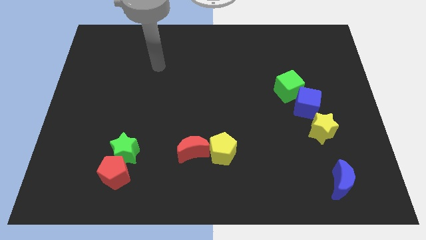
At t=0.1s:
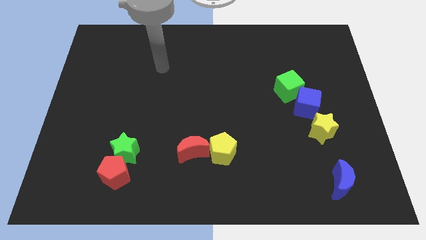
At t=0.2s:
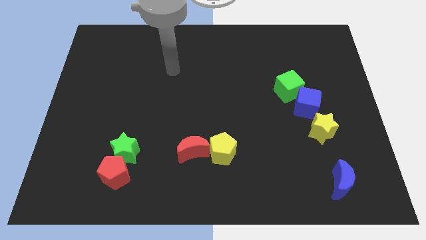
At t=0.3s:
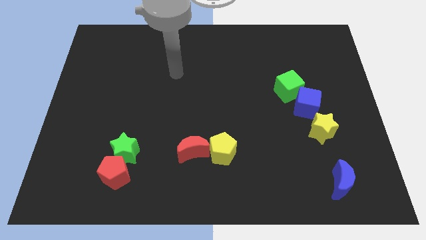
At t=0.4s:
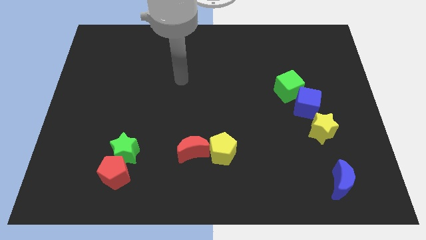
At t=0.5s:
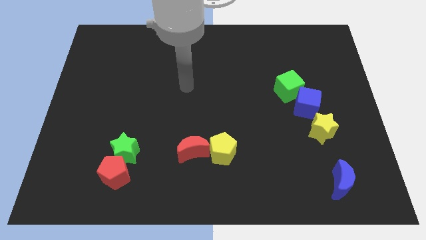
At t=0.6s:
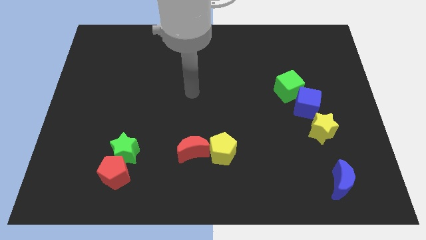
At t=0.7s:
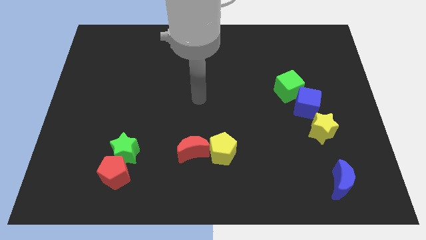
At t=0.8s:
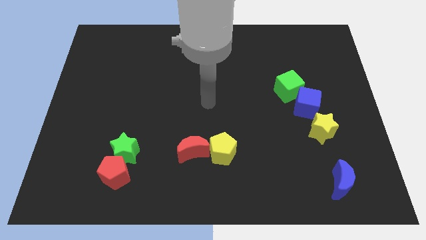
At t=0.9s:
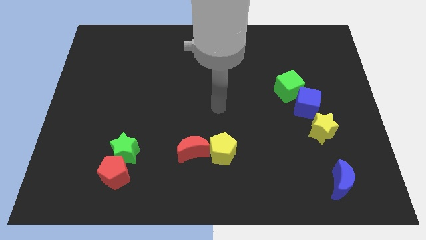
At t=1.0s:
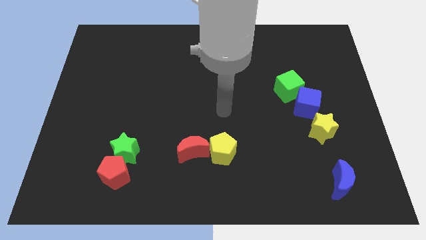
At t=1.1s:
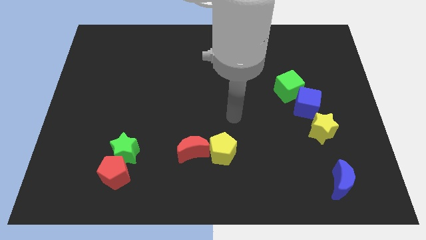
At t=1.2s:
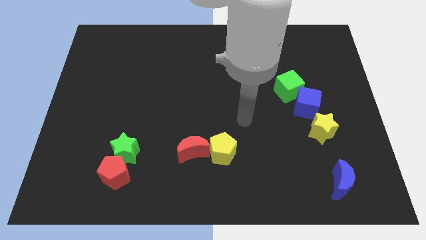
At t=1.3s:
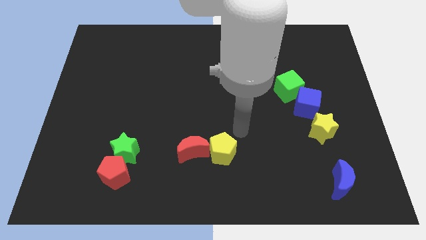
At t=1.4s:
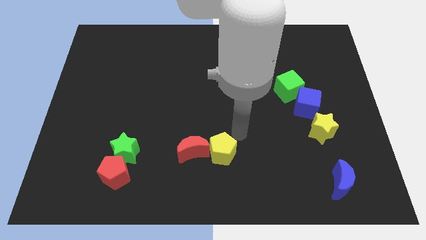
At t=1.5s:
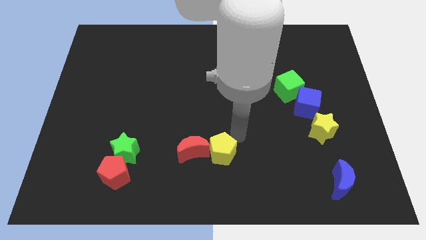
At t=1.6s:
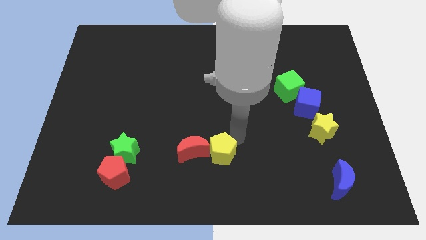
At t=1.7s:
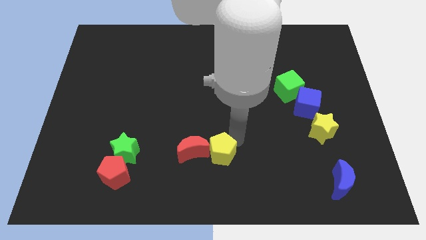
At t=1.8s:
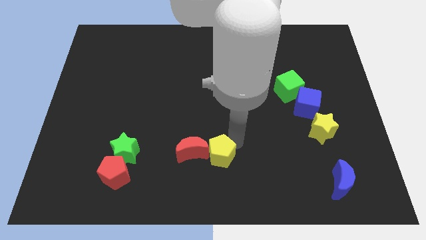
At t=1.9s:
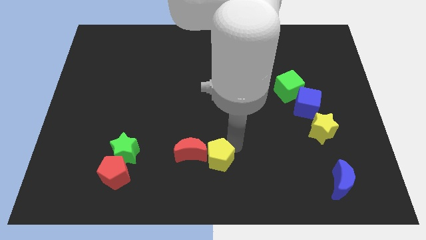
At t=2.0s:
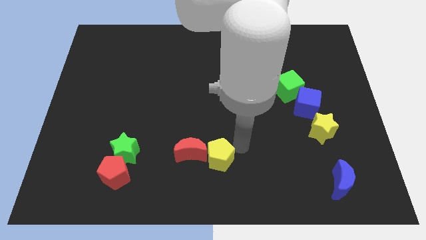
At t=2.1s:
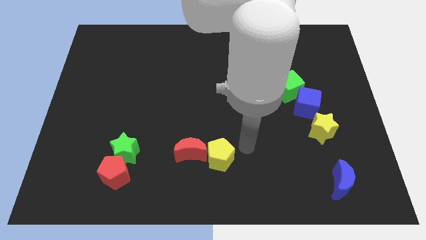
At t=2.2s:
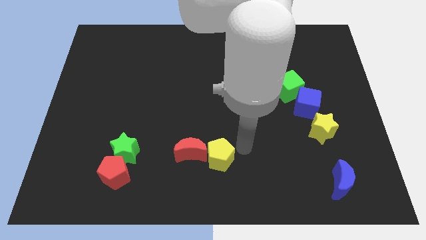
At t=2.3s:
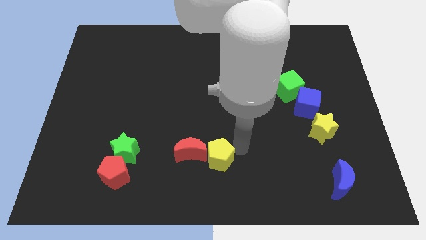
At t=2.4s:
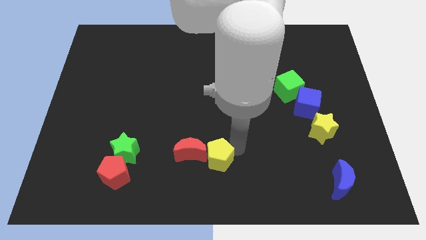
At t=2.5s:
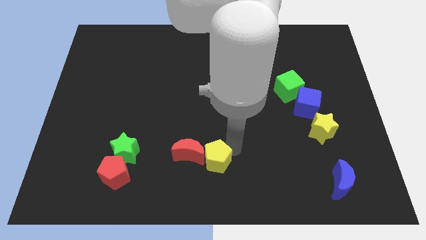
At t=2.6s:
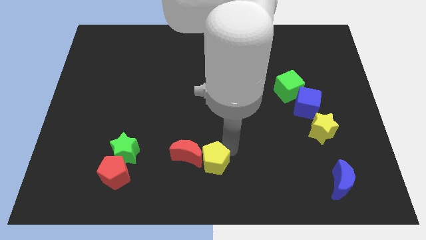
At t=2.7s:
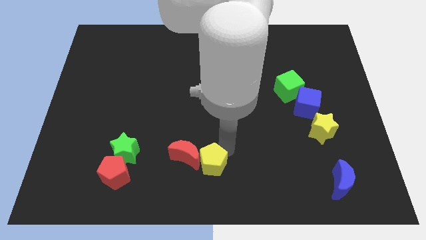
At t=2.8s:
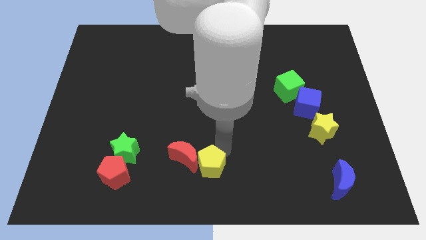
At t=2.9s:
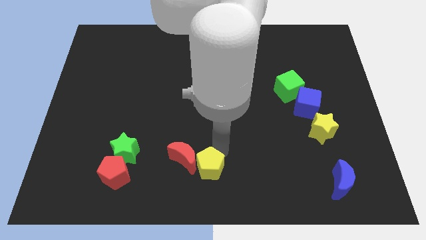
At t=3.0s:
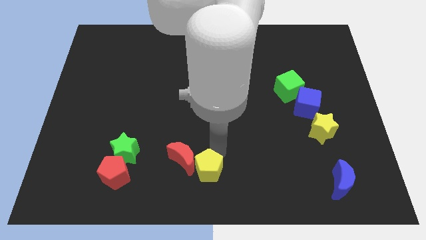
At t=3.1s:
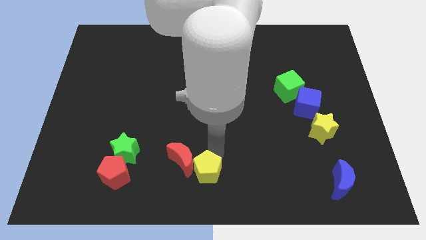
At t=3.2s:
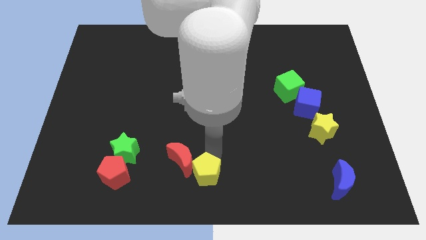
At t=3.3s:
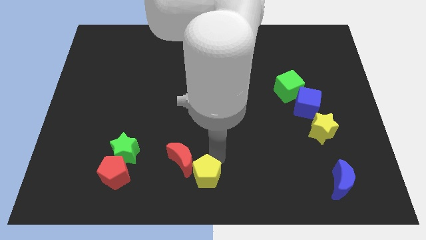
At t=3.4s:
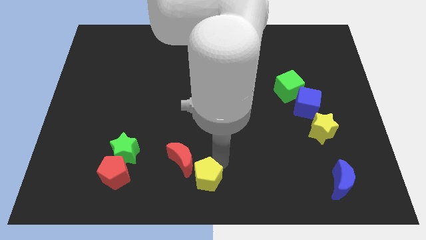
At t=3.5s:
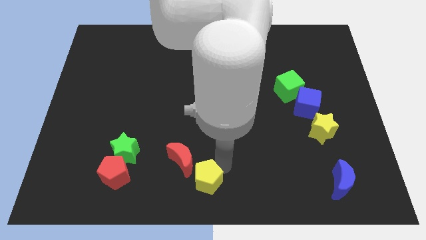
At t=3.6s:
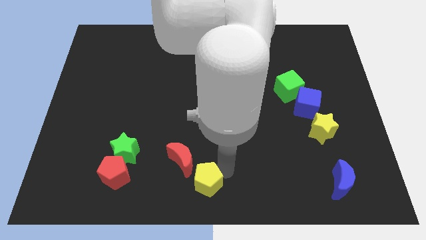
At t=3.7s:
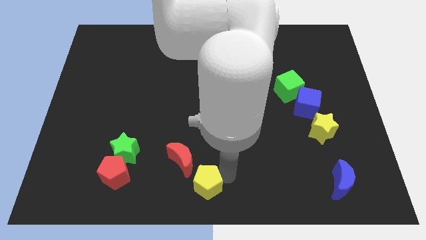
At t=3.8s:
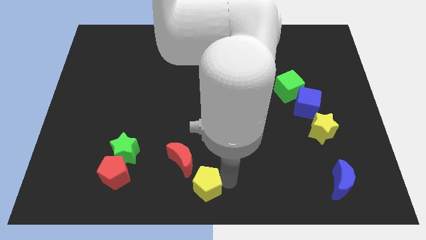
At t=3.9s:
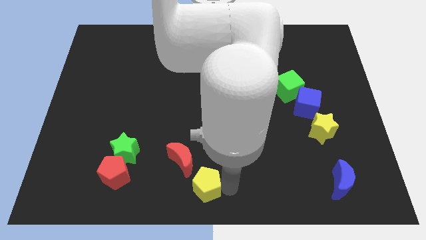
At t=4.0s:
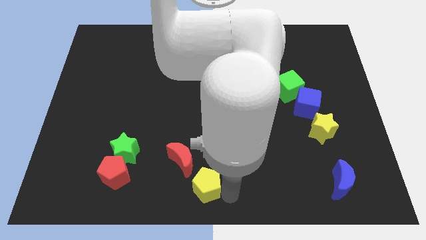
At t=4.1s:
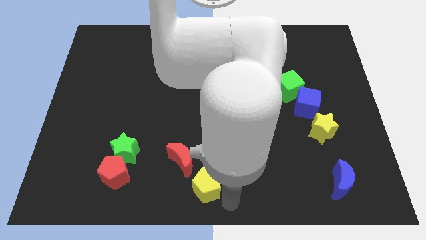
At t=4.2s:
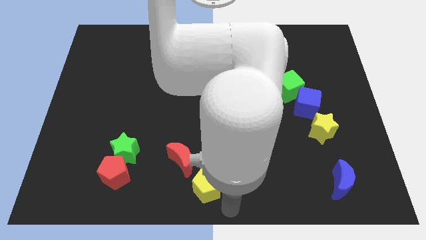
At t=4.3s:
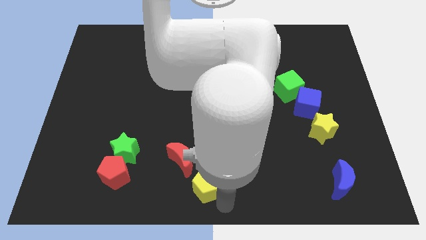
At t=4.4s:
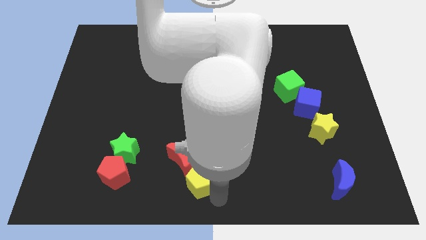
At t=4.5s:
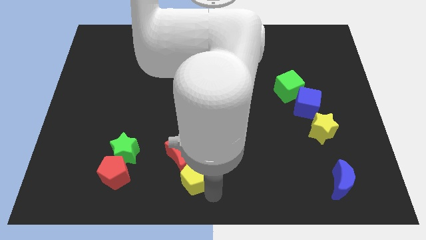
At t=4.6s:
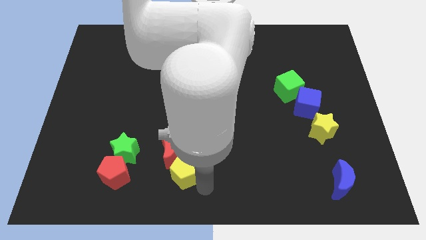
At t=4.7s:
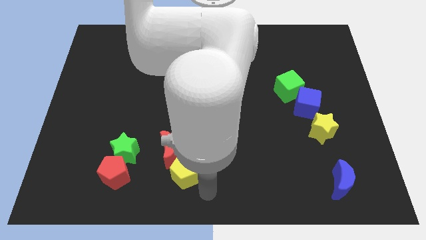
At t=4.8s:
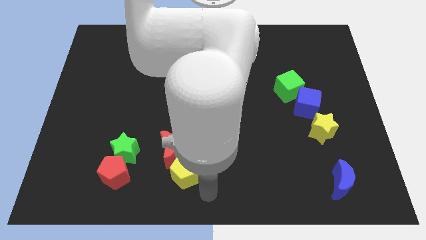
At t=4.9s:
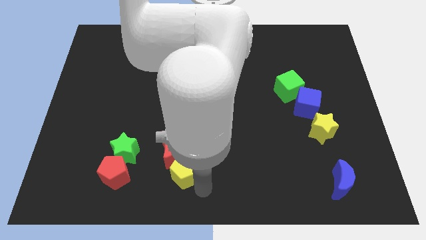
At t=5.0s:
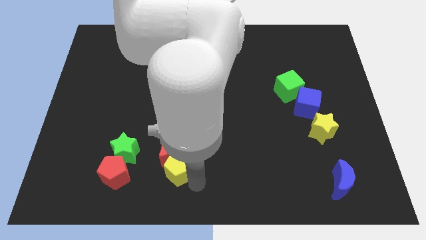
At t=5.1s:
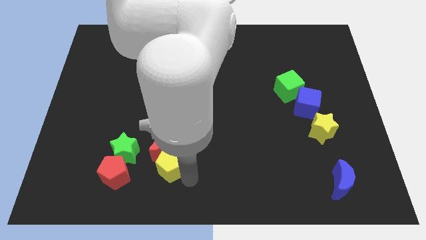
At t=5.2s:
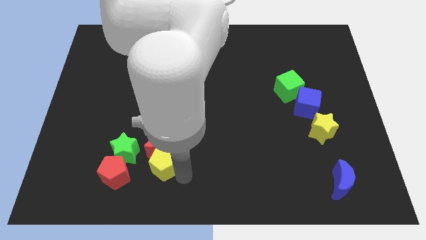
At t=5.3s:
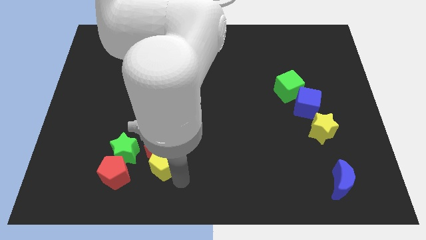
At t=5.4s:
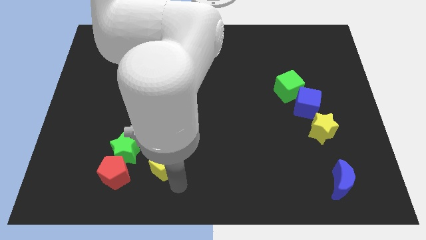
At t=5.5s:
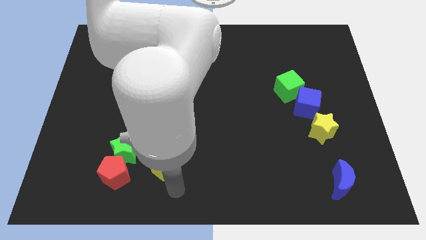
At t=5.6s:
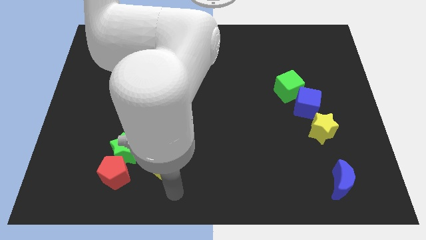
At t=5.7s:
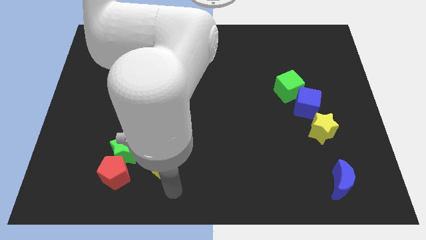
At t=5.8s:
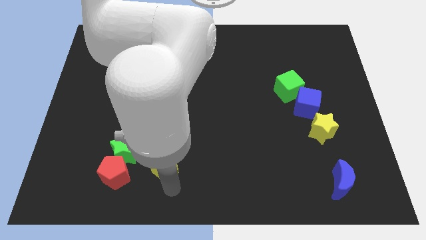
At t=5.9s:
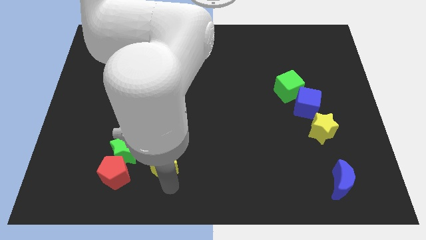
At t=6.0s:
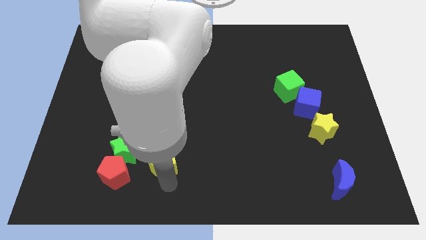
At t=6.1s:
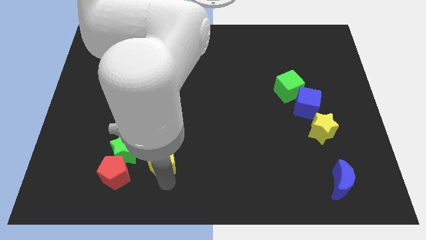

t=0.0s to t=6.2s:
slide the yellow pentagon diagonally up and to the right of the red pentagon

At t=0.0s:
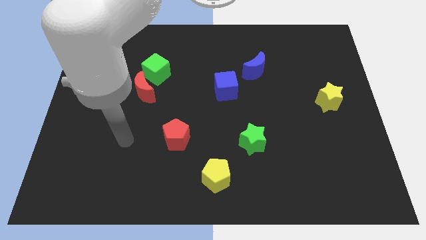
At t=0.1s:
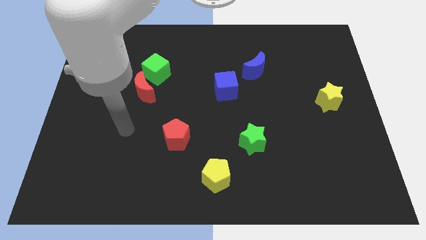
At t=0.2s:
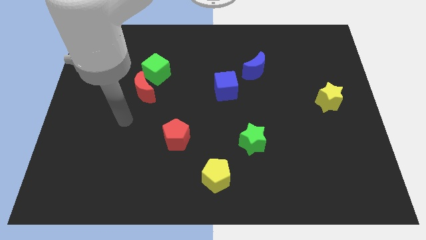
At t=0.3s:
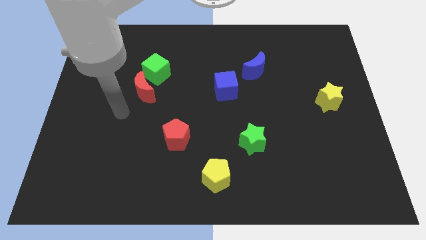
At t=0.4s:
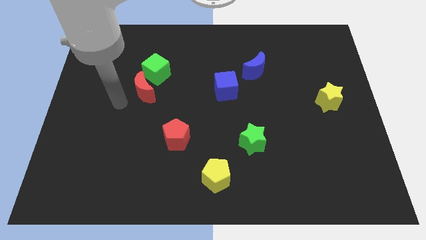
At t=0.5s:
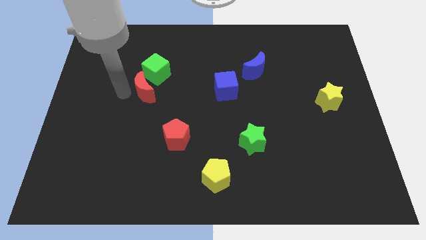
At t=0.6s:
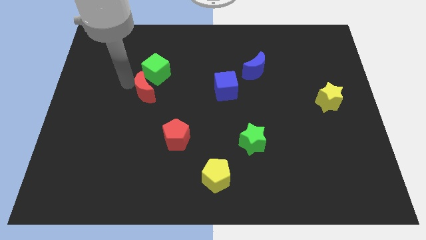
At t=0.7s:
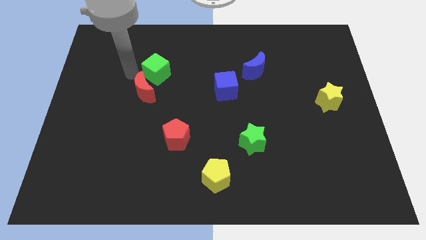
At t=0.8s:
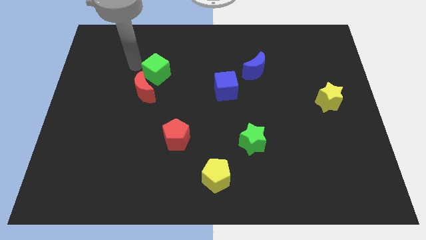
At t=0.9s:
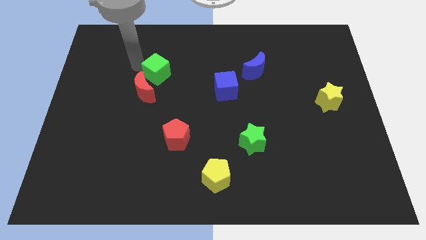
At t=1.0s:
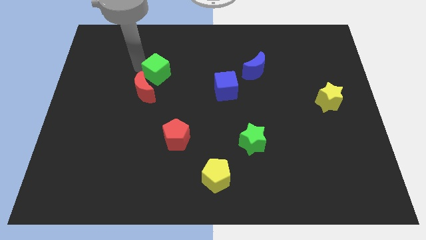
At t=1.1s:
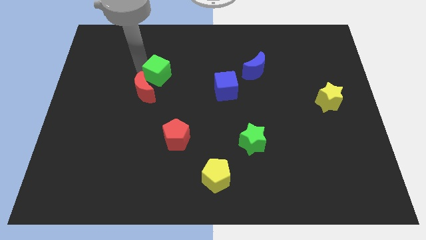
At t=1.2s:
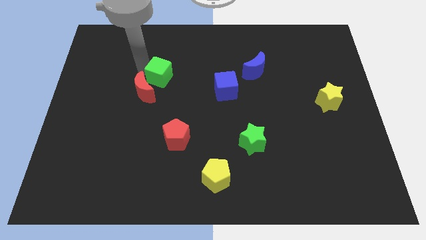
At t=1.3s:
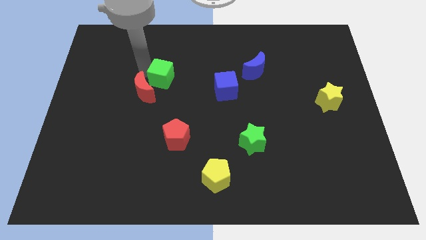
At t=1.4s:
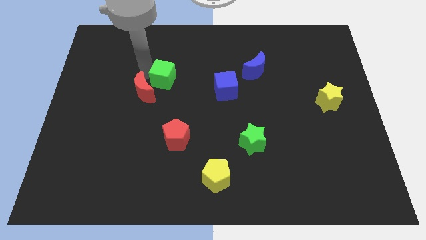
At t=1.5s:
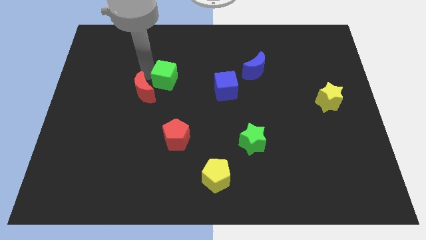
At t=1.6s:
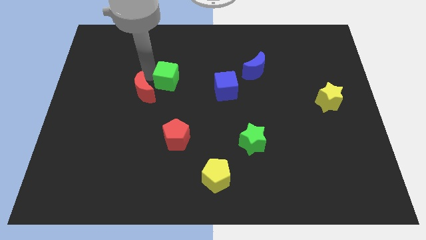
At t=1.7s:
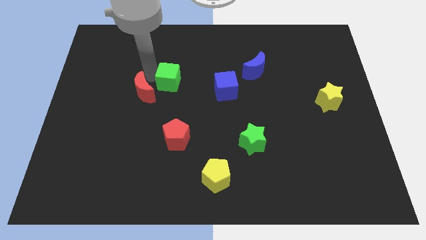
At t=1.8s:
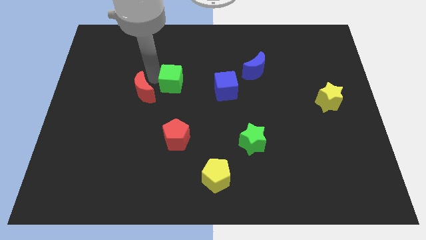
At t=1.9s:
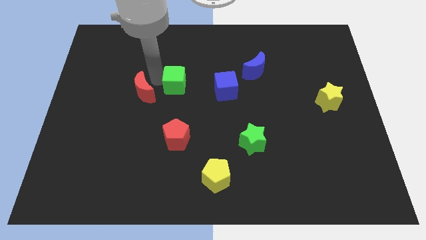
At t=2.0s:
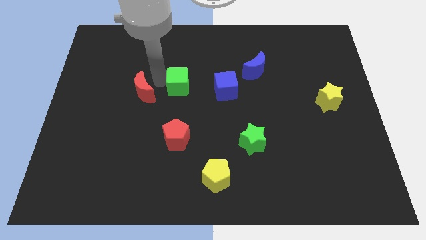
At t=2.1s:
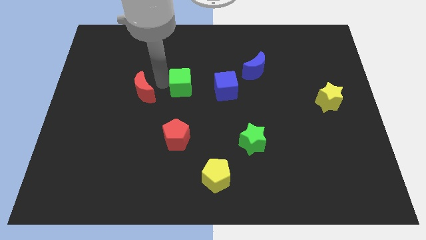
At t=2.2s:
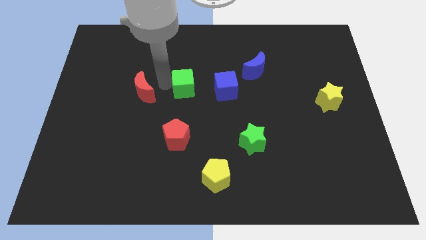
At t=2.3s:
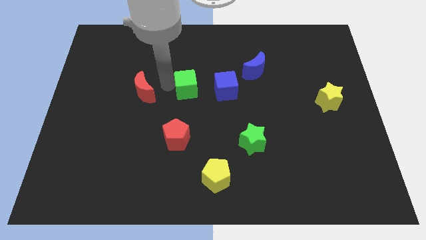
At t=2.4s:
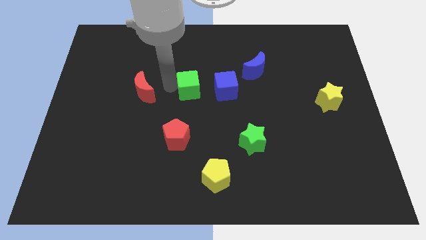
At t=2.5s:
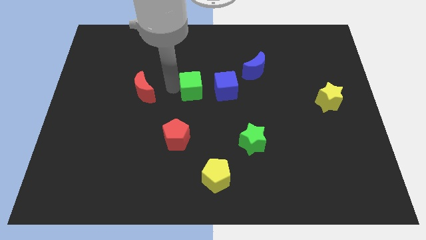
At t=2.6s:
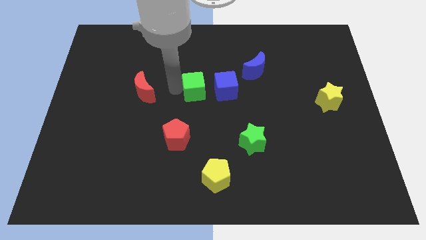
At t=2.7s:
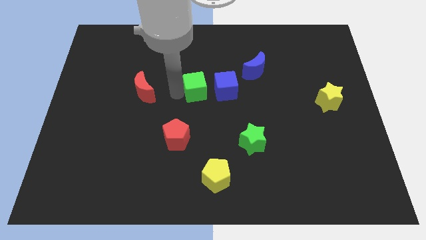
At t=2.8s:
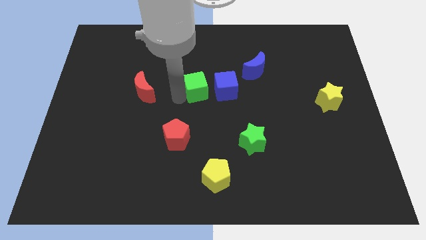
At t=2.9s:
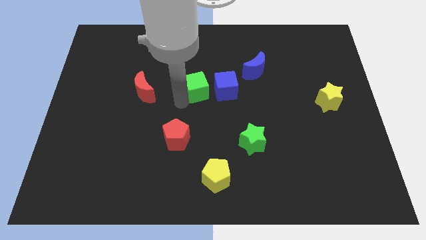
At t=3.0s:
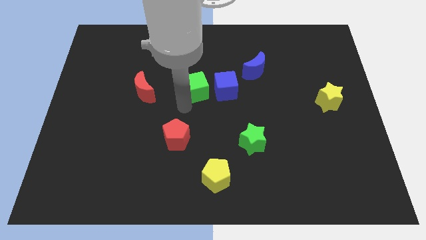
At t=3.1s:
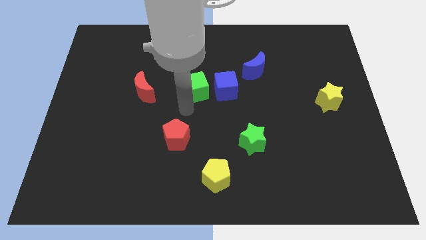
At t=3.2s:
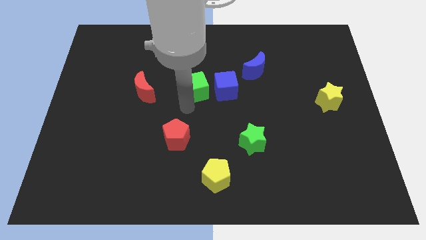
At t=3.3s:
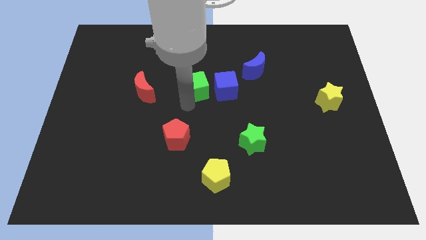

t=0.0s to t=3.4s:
slide the green cube diagonally up and to the left of the blue cube
